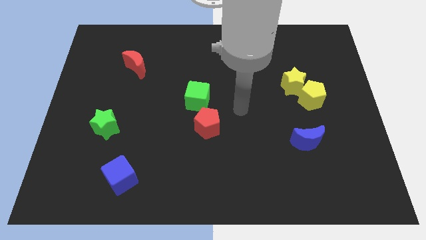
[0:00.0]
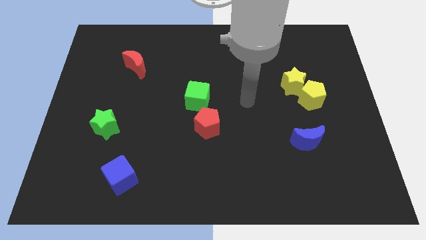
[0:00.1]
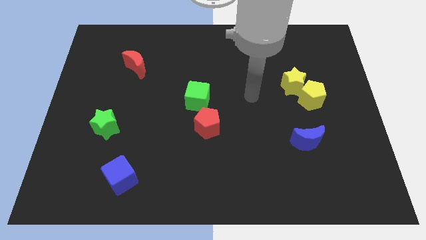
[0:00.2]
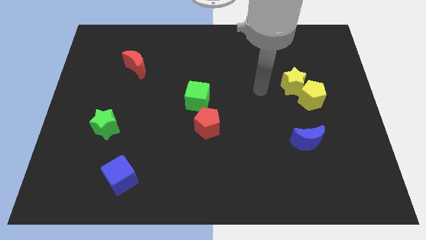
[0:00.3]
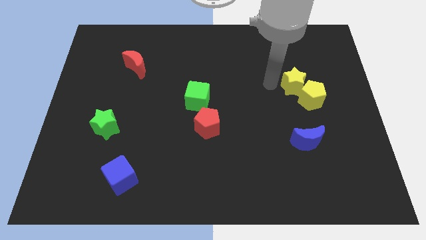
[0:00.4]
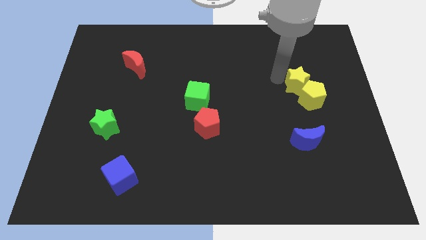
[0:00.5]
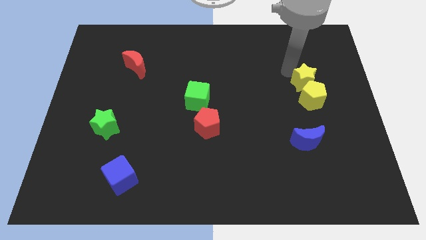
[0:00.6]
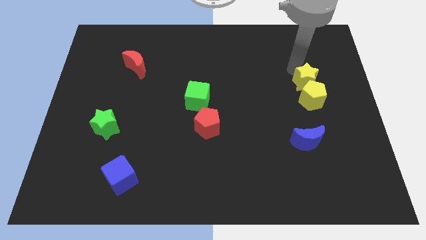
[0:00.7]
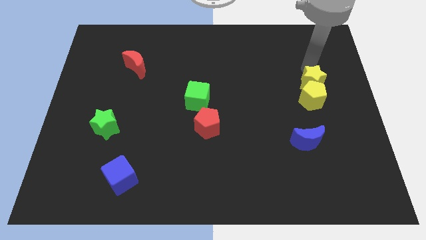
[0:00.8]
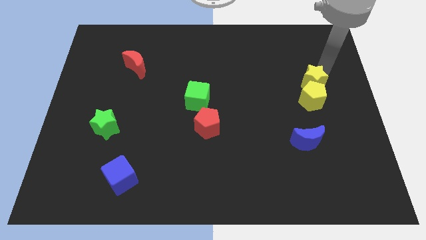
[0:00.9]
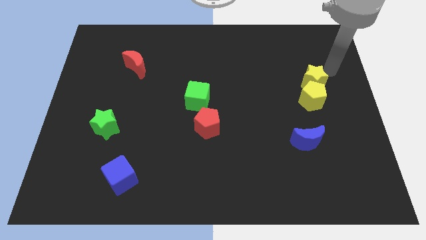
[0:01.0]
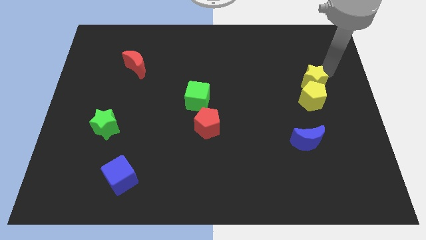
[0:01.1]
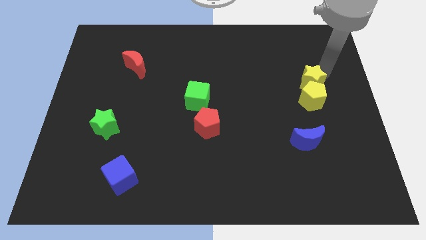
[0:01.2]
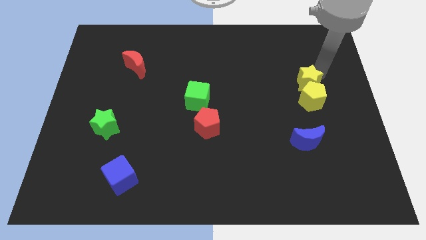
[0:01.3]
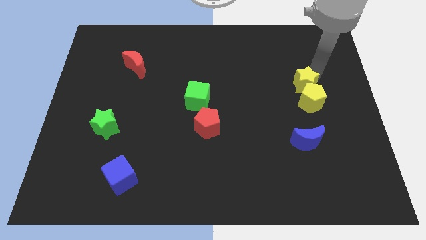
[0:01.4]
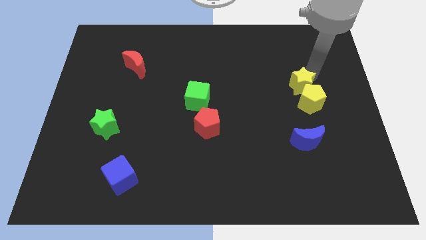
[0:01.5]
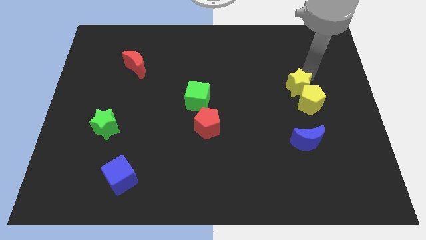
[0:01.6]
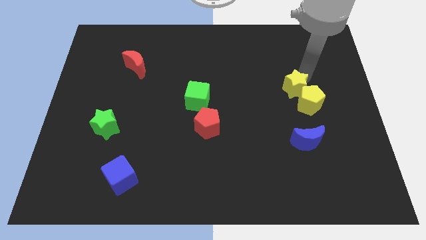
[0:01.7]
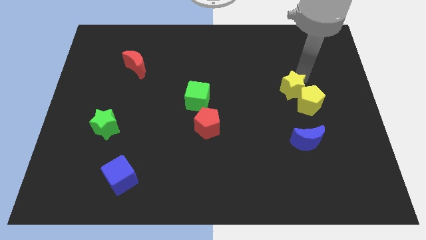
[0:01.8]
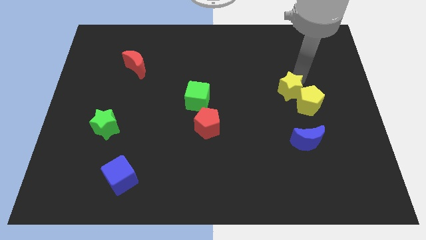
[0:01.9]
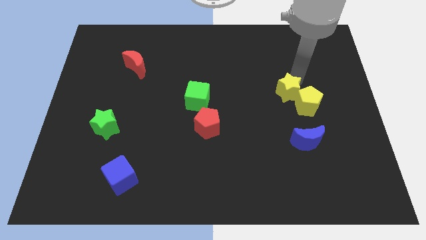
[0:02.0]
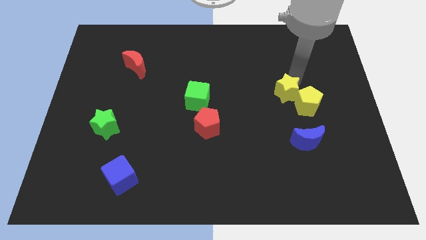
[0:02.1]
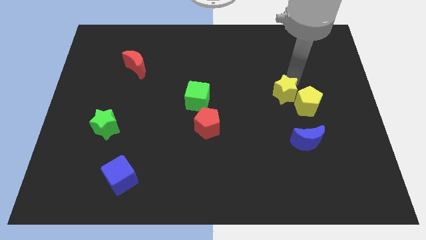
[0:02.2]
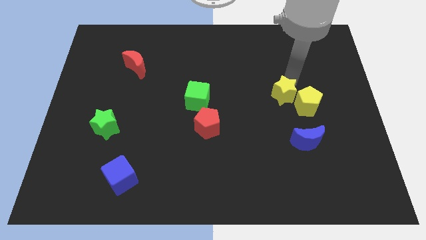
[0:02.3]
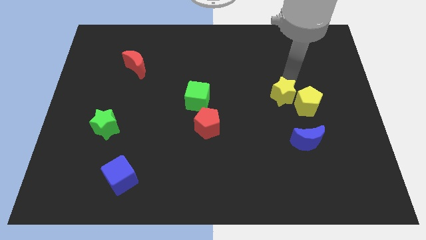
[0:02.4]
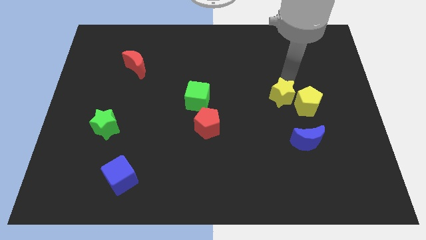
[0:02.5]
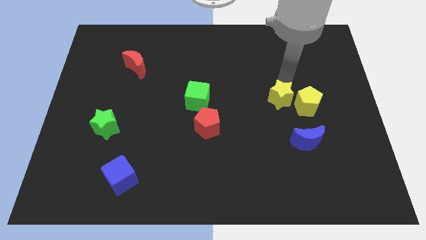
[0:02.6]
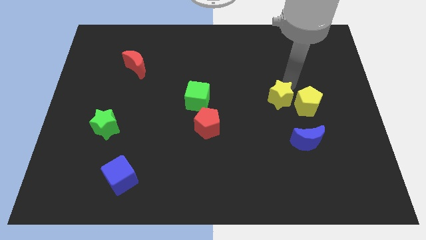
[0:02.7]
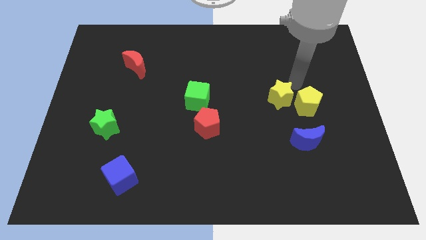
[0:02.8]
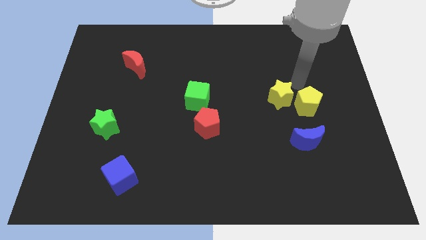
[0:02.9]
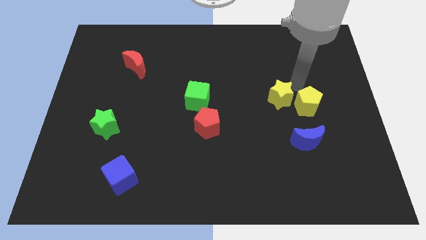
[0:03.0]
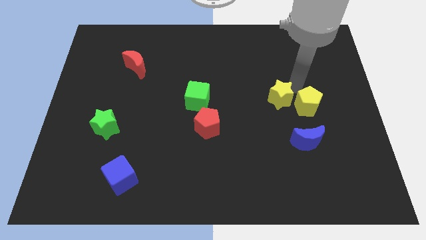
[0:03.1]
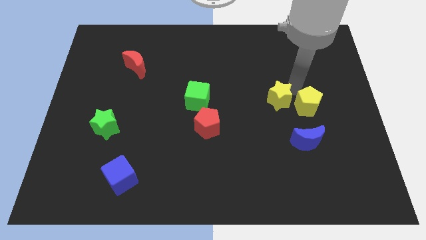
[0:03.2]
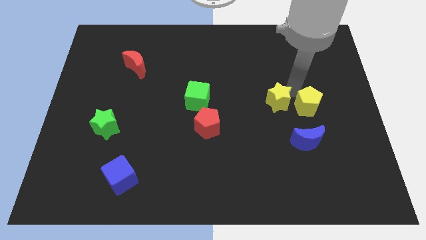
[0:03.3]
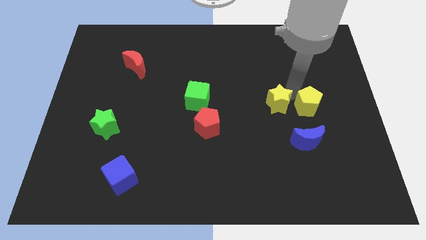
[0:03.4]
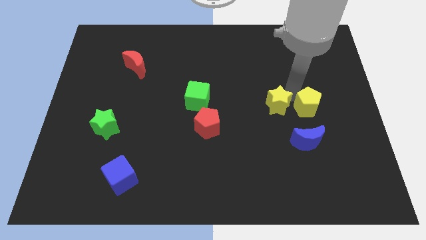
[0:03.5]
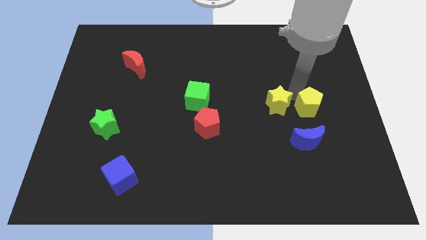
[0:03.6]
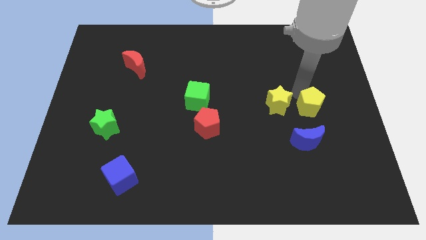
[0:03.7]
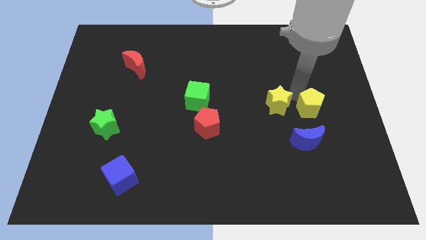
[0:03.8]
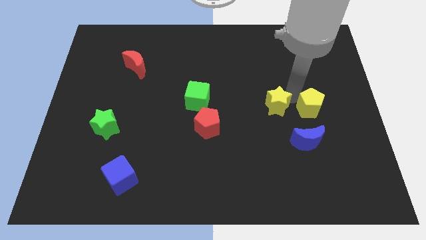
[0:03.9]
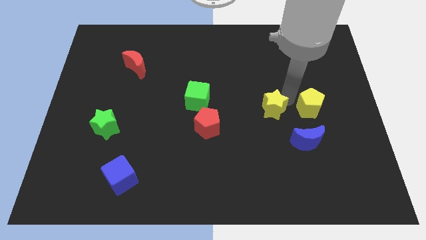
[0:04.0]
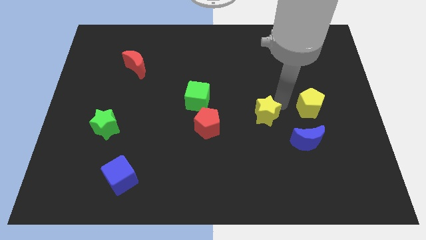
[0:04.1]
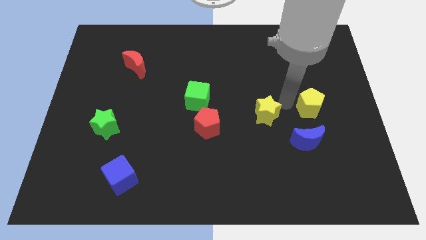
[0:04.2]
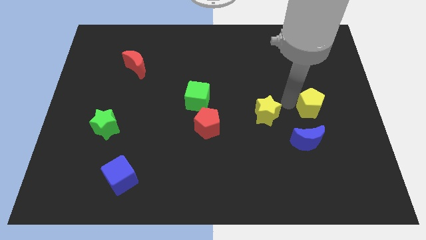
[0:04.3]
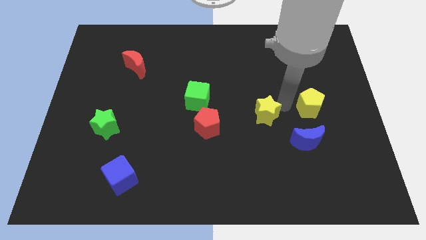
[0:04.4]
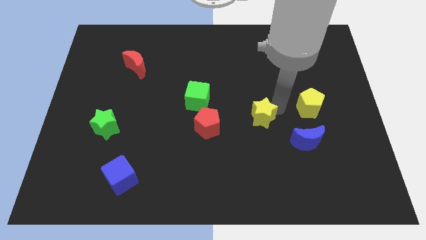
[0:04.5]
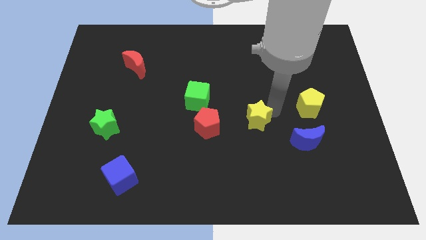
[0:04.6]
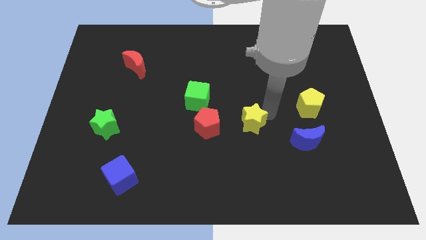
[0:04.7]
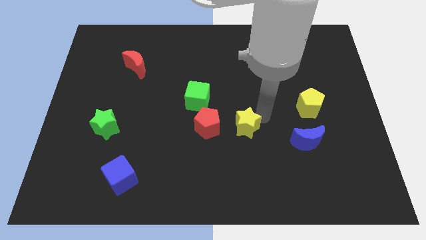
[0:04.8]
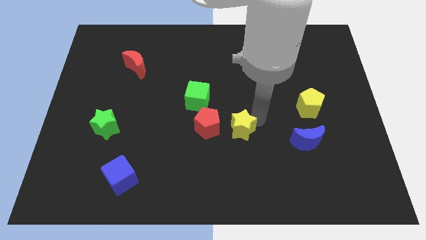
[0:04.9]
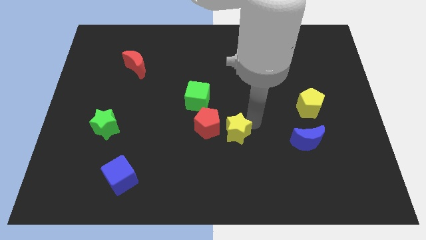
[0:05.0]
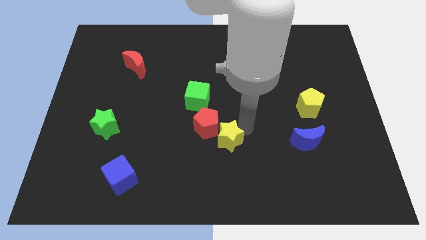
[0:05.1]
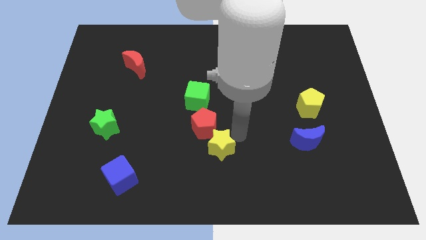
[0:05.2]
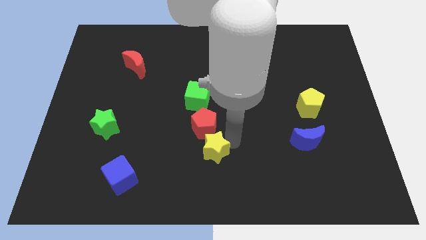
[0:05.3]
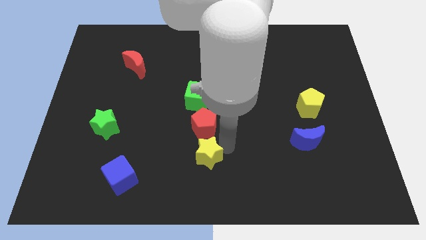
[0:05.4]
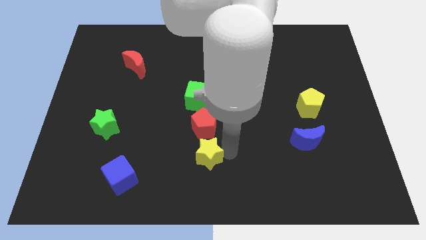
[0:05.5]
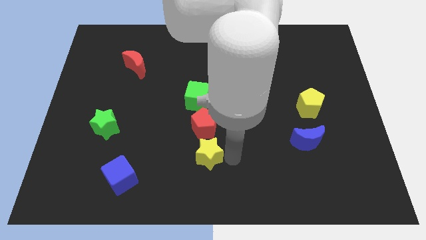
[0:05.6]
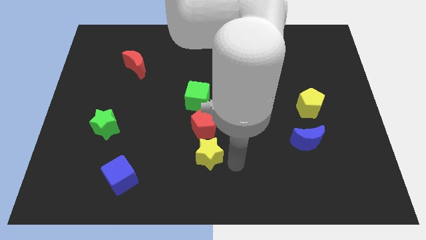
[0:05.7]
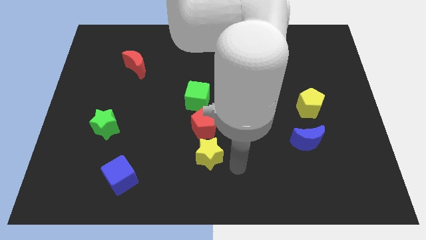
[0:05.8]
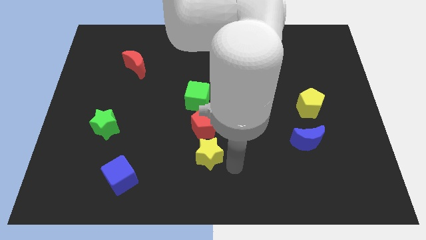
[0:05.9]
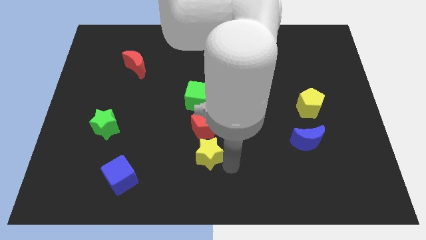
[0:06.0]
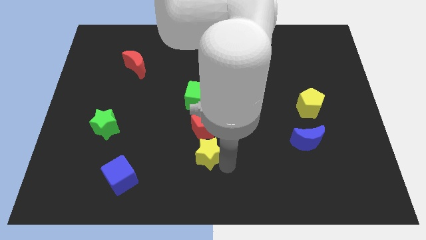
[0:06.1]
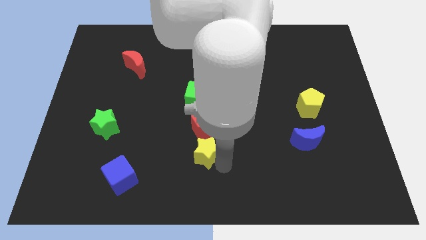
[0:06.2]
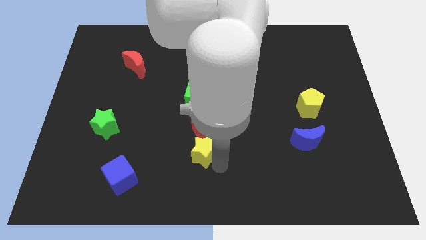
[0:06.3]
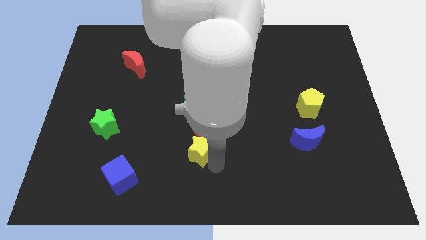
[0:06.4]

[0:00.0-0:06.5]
slide the yellow star to the bottom left of the red pentagon

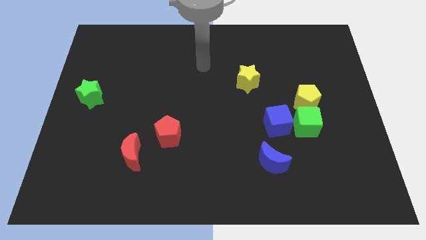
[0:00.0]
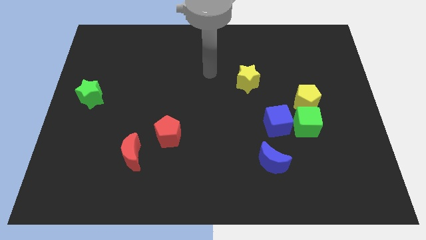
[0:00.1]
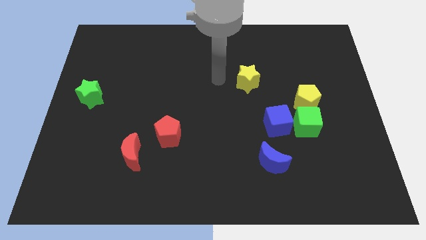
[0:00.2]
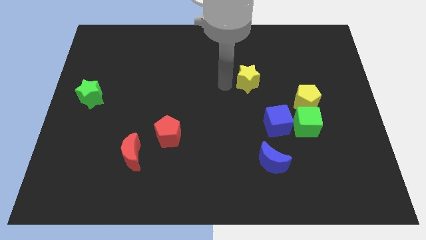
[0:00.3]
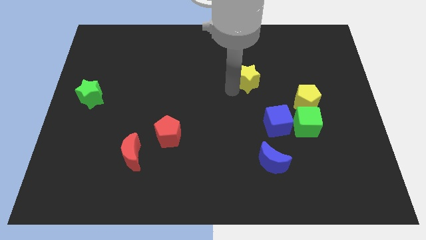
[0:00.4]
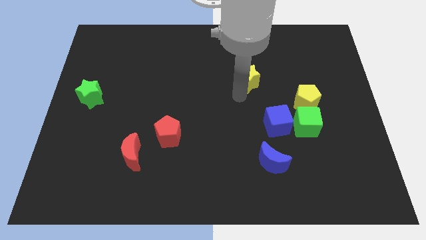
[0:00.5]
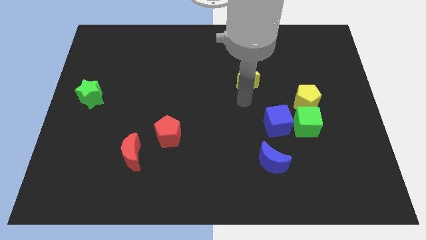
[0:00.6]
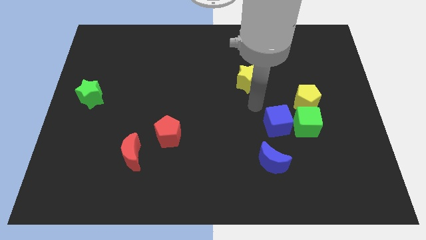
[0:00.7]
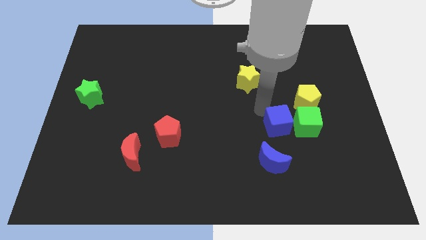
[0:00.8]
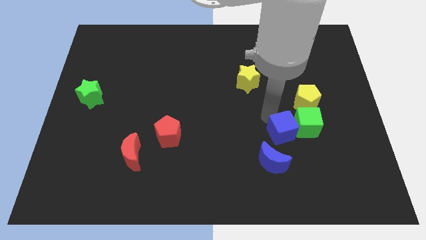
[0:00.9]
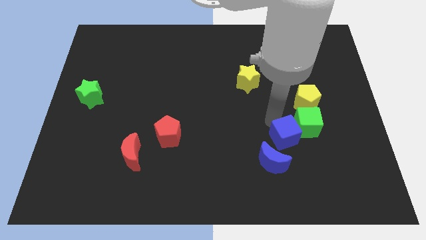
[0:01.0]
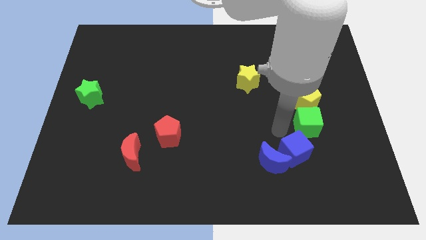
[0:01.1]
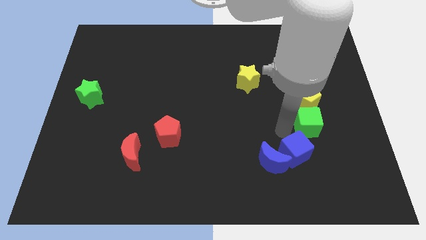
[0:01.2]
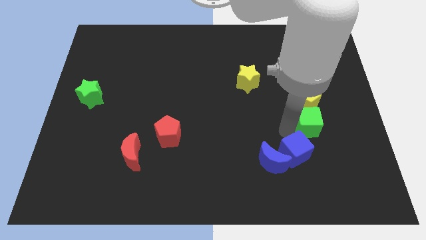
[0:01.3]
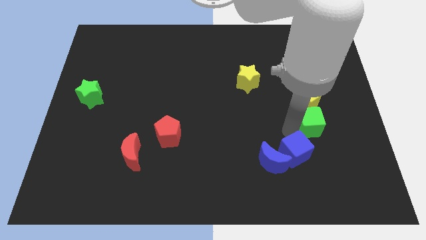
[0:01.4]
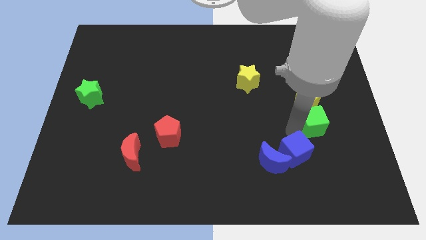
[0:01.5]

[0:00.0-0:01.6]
move the green cube to the bottom right of the yellow pentagon
